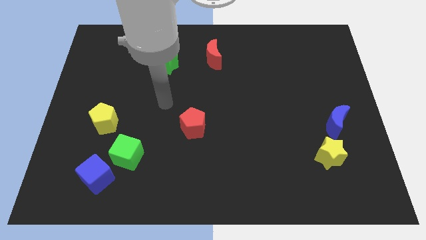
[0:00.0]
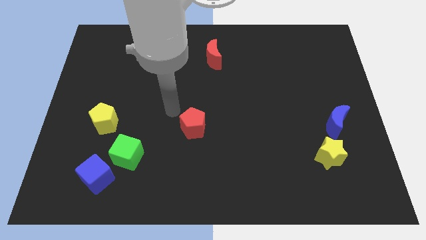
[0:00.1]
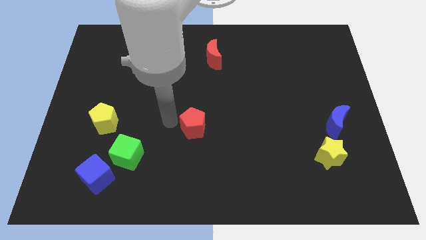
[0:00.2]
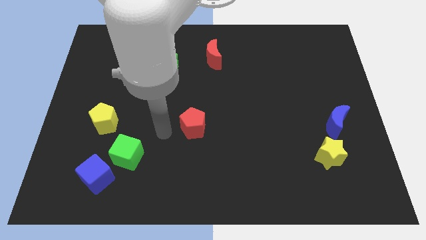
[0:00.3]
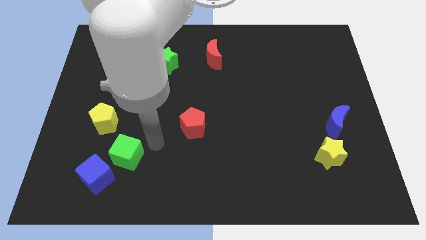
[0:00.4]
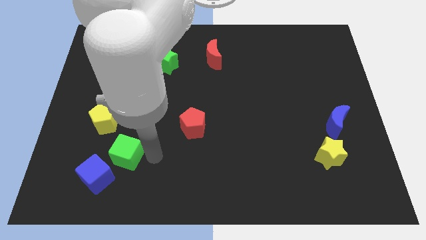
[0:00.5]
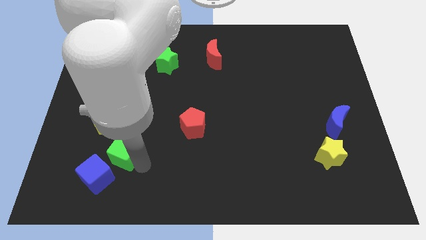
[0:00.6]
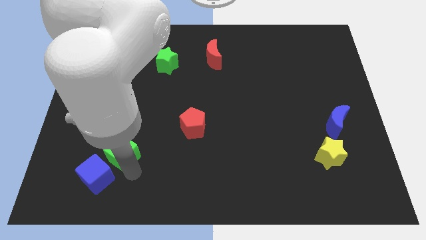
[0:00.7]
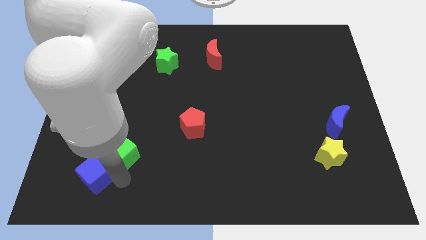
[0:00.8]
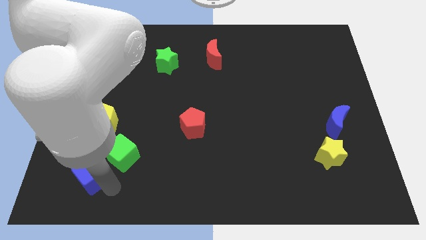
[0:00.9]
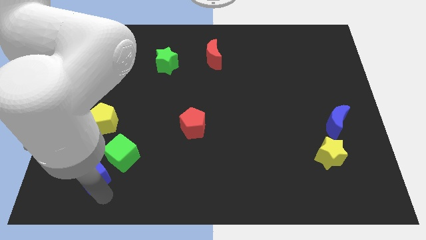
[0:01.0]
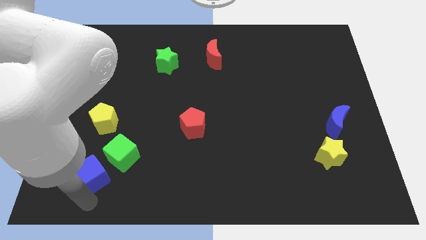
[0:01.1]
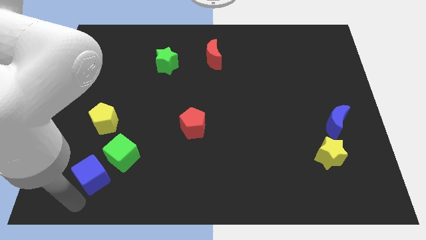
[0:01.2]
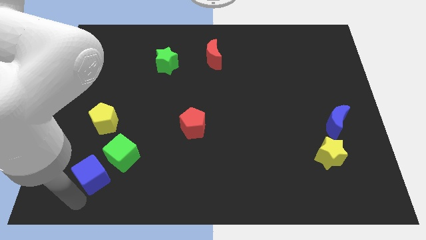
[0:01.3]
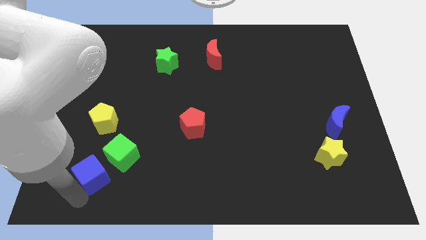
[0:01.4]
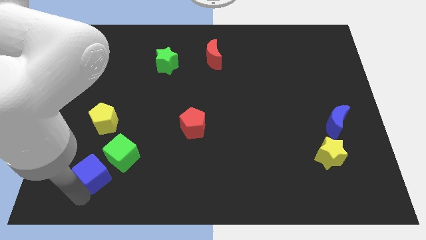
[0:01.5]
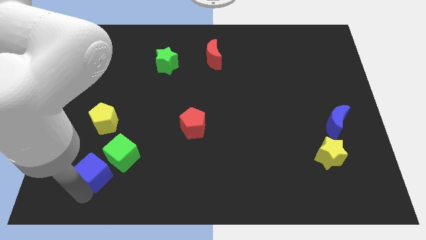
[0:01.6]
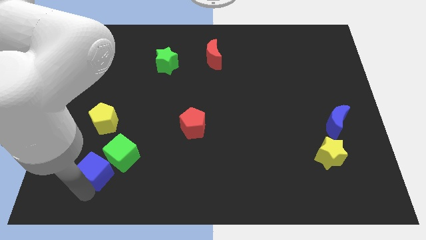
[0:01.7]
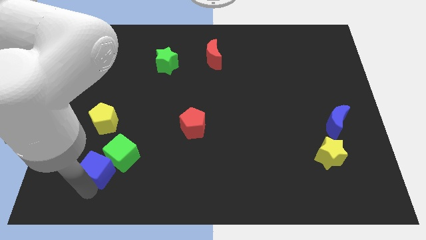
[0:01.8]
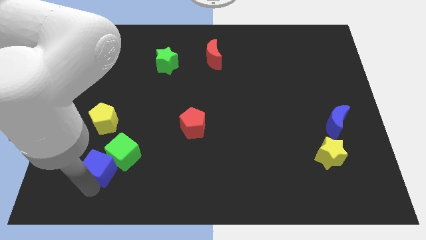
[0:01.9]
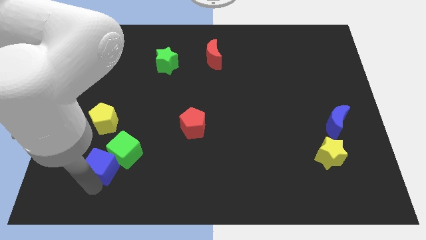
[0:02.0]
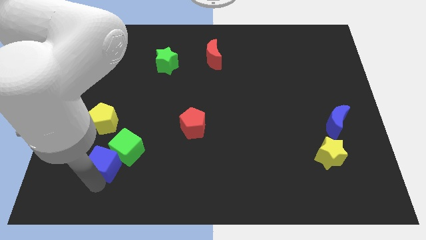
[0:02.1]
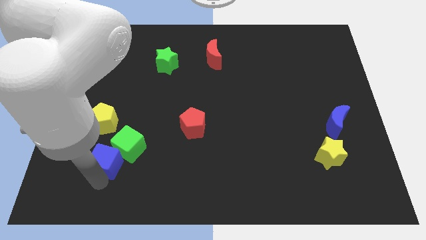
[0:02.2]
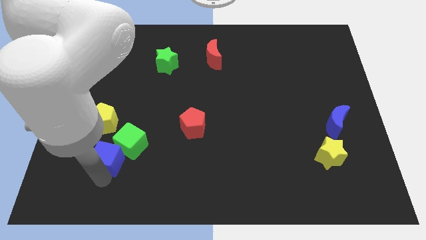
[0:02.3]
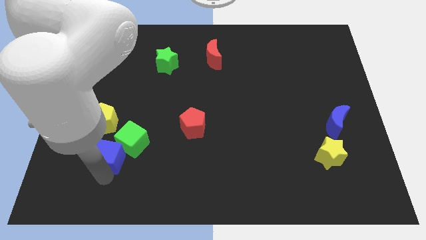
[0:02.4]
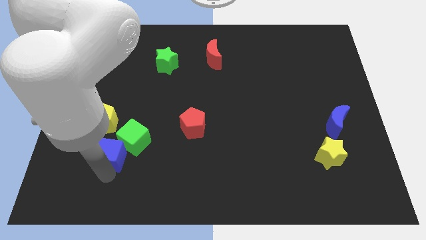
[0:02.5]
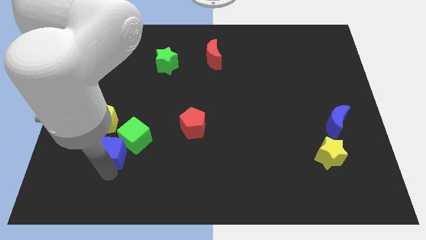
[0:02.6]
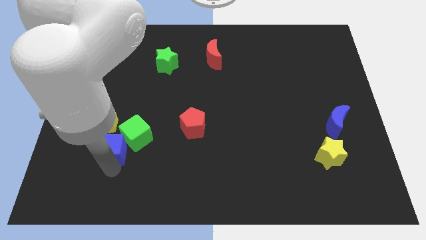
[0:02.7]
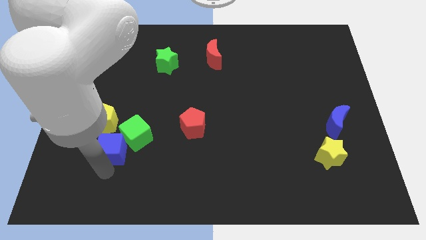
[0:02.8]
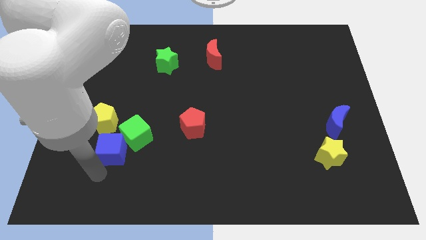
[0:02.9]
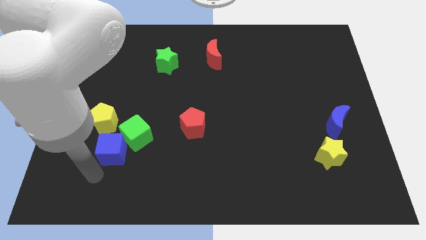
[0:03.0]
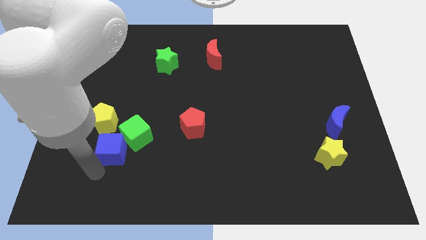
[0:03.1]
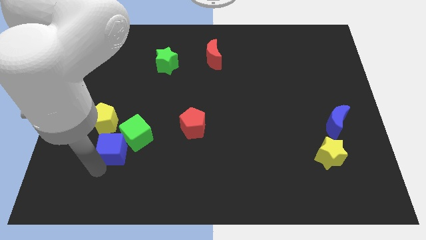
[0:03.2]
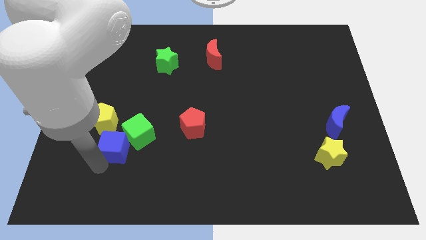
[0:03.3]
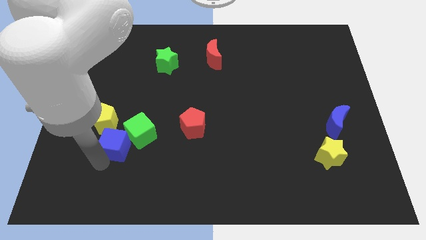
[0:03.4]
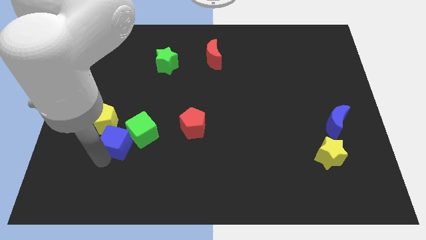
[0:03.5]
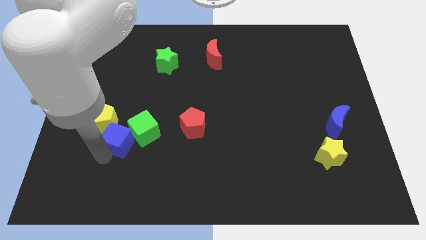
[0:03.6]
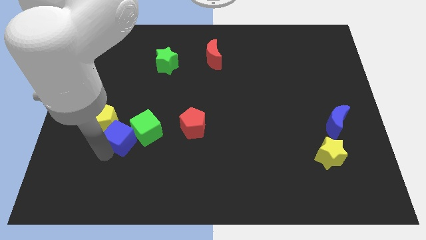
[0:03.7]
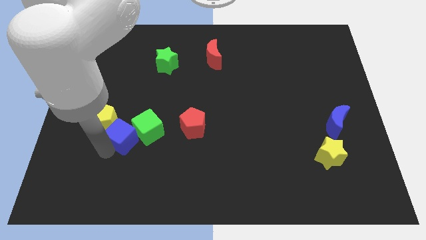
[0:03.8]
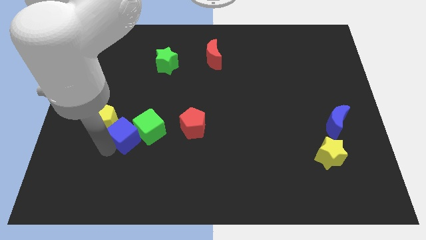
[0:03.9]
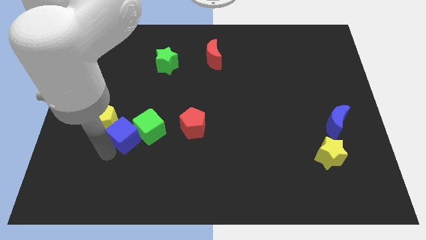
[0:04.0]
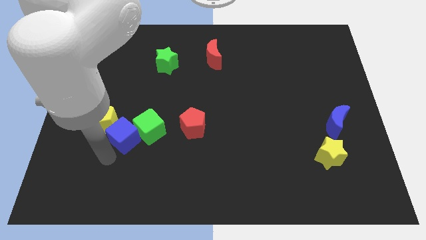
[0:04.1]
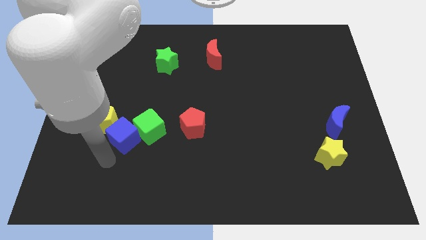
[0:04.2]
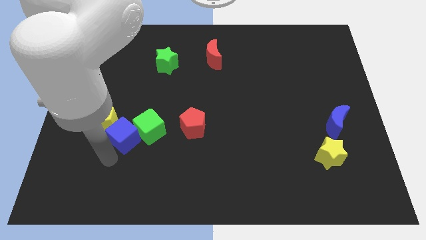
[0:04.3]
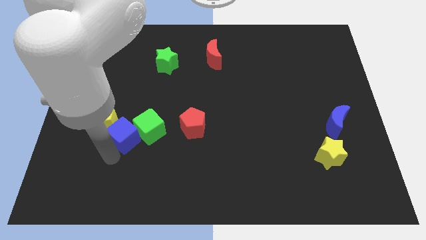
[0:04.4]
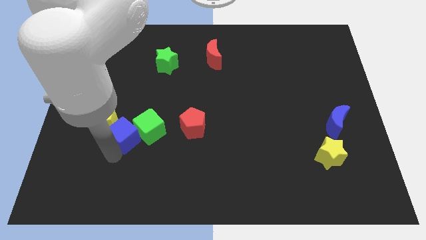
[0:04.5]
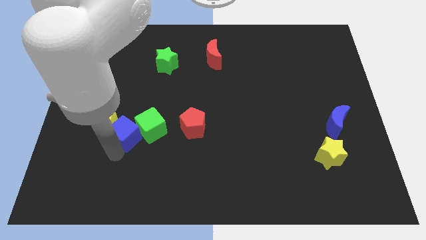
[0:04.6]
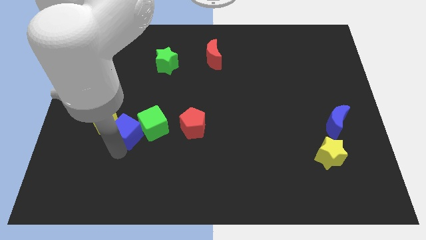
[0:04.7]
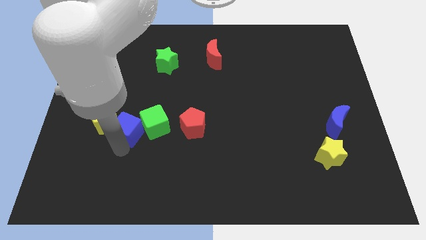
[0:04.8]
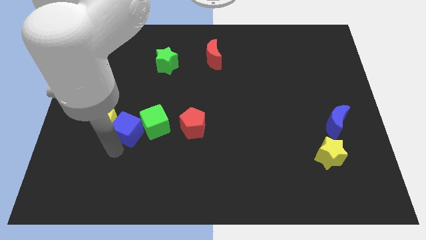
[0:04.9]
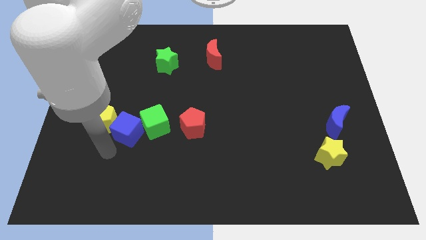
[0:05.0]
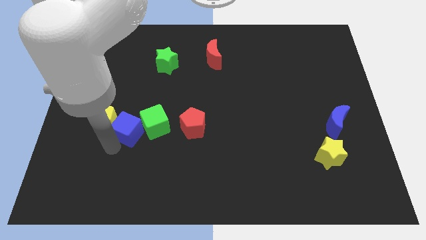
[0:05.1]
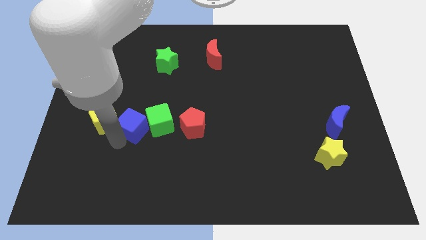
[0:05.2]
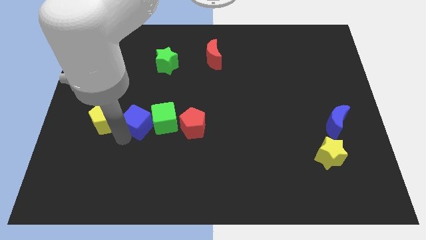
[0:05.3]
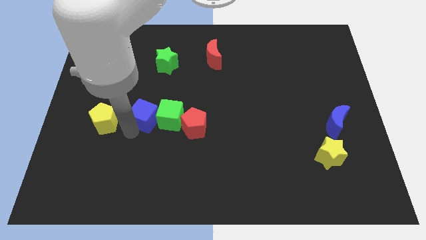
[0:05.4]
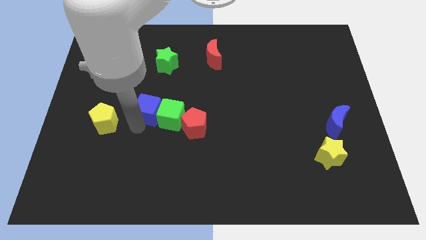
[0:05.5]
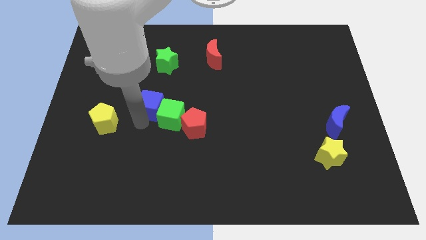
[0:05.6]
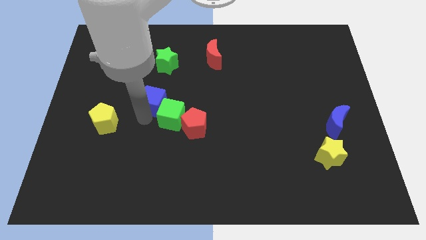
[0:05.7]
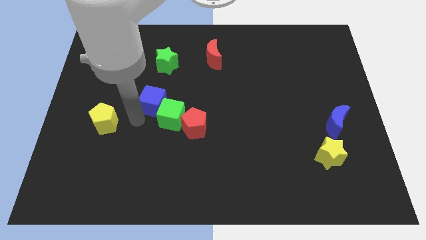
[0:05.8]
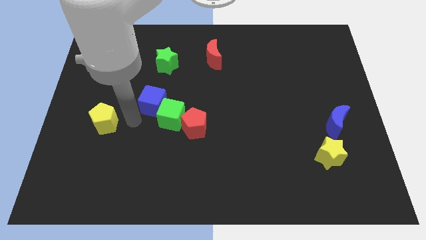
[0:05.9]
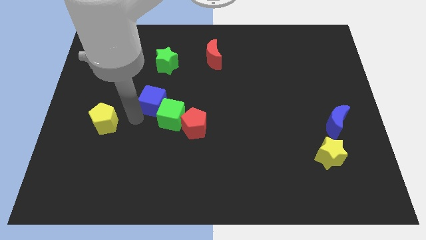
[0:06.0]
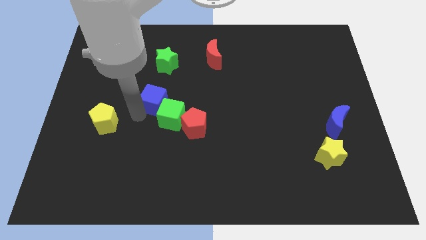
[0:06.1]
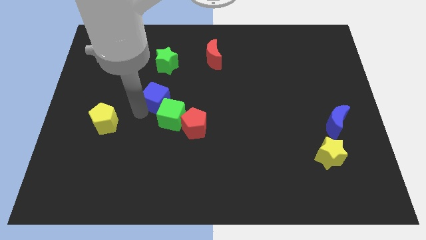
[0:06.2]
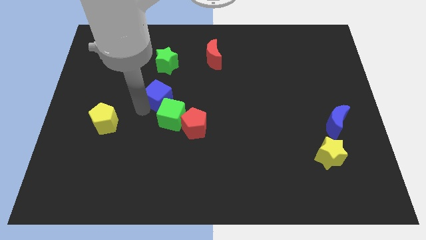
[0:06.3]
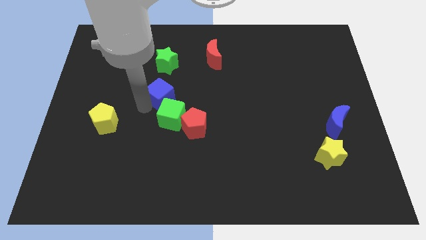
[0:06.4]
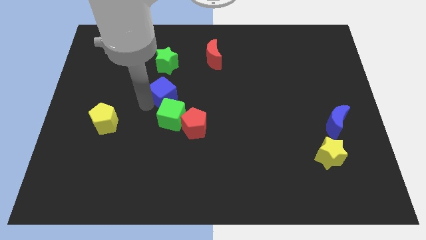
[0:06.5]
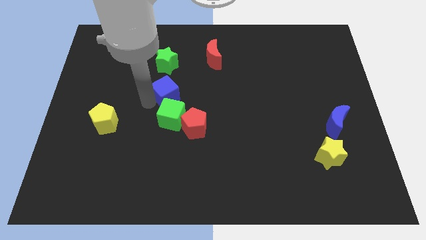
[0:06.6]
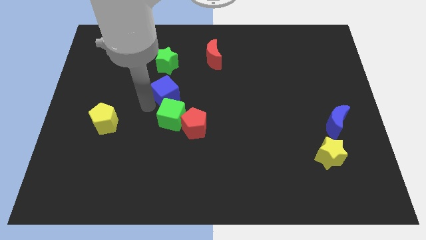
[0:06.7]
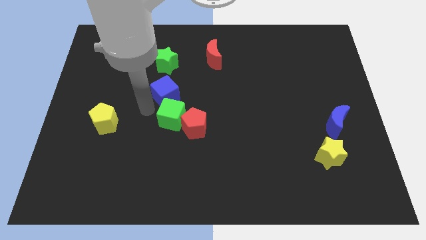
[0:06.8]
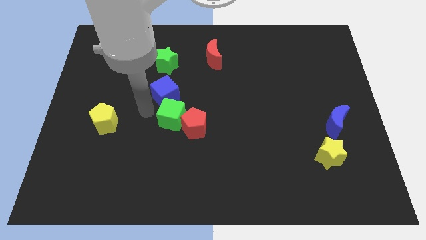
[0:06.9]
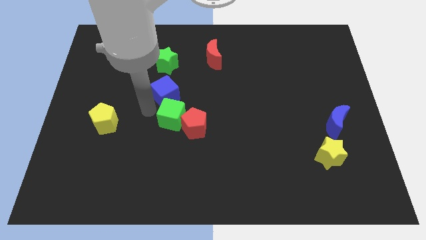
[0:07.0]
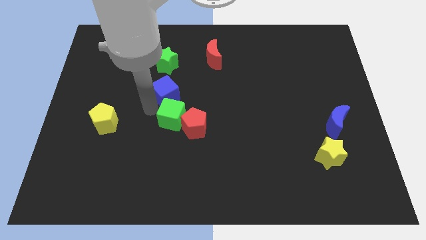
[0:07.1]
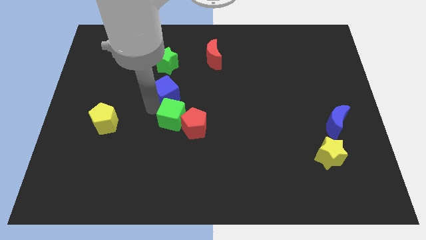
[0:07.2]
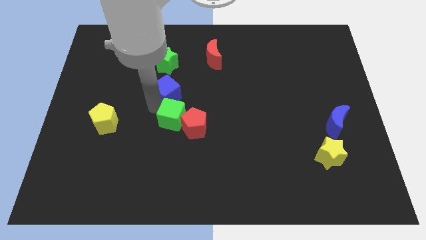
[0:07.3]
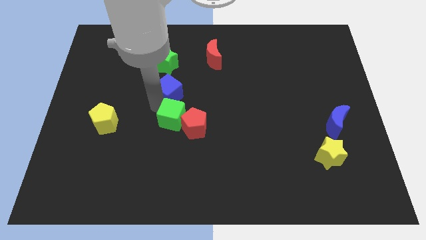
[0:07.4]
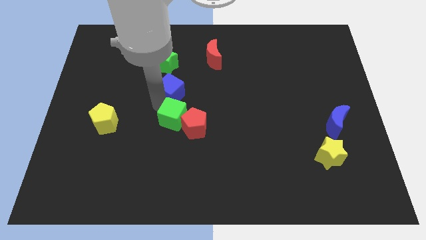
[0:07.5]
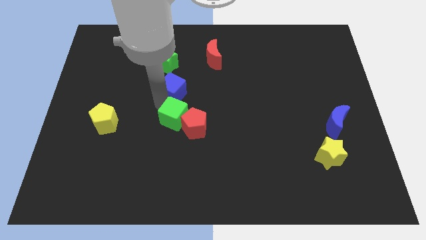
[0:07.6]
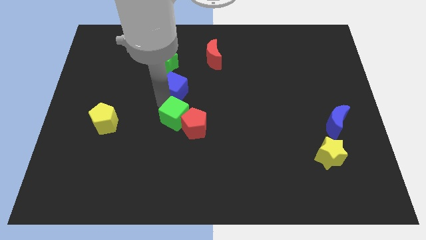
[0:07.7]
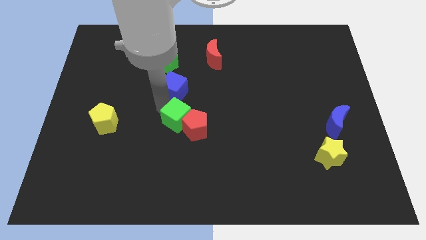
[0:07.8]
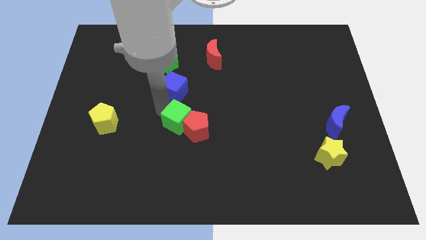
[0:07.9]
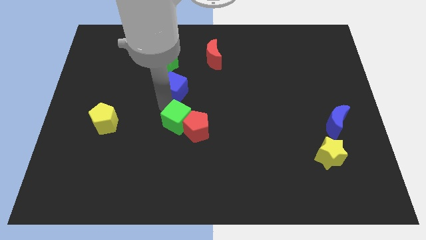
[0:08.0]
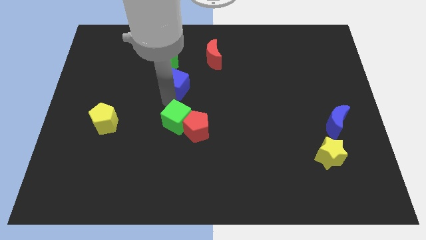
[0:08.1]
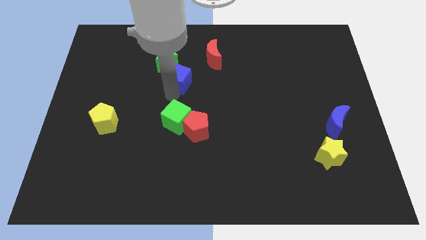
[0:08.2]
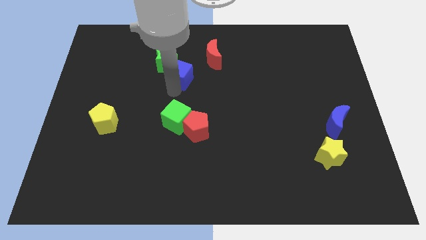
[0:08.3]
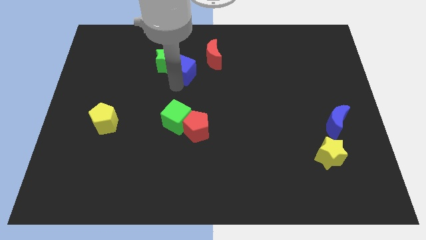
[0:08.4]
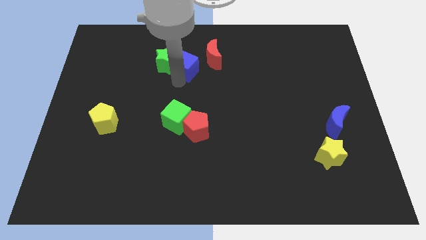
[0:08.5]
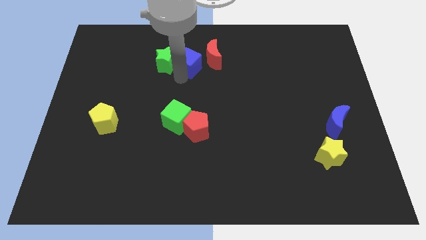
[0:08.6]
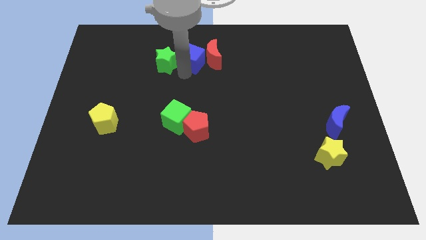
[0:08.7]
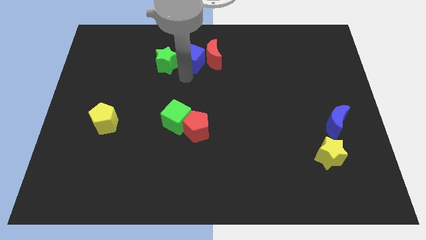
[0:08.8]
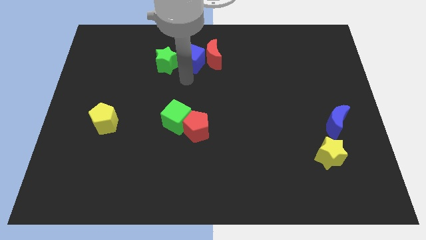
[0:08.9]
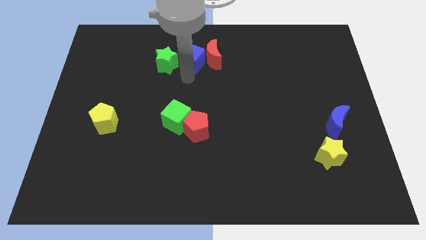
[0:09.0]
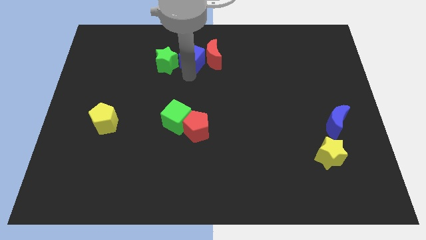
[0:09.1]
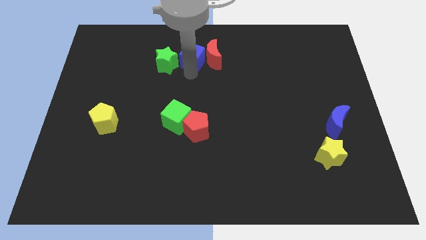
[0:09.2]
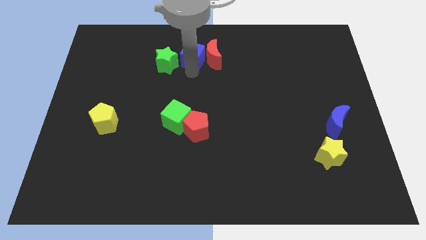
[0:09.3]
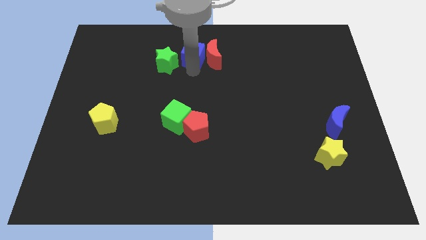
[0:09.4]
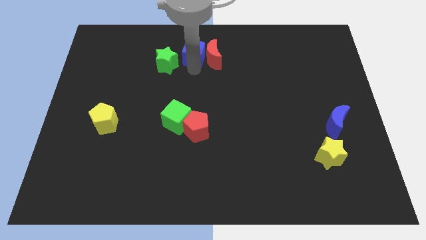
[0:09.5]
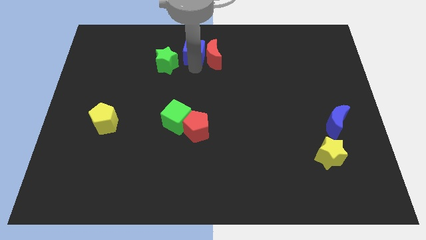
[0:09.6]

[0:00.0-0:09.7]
push the blue cube to the towards your base
